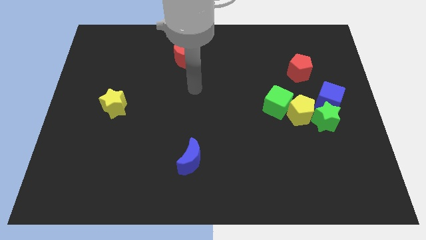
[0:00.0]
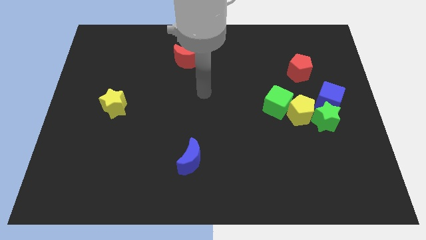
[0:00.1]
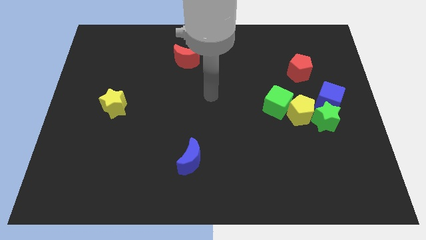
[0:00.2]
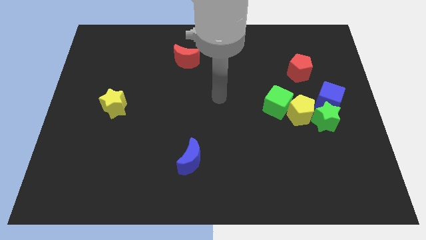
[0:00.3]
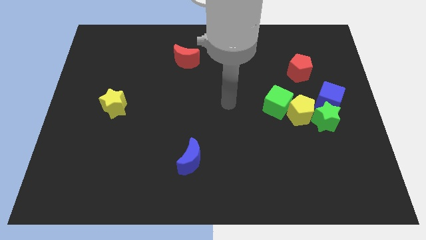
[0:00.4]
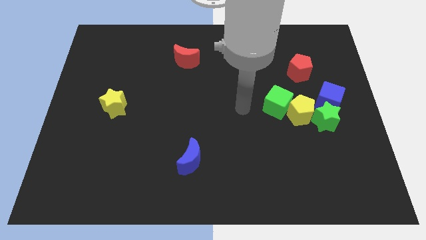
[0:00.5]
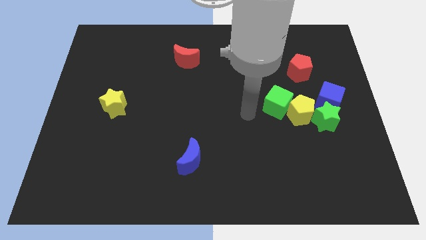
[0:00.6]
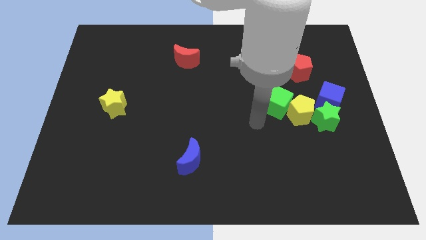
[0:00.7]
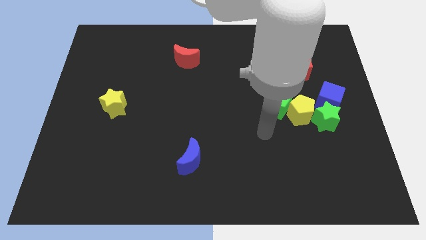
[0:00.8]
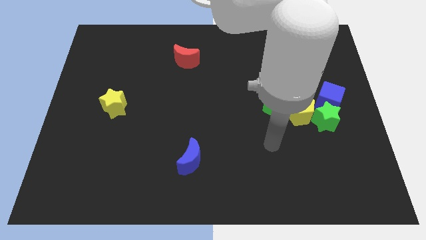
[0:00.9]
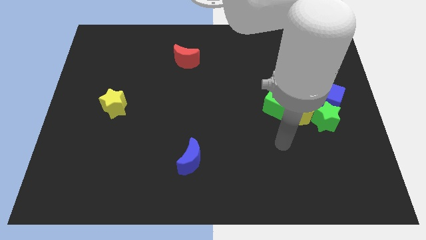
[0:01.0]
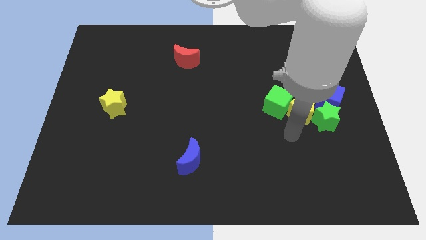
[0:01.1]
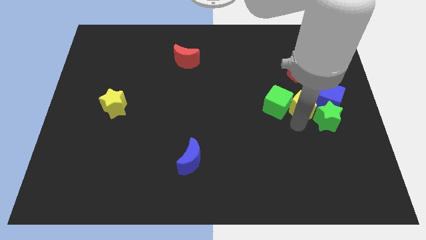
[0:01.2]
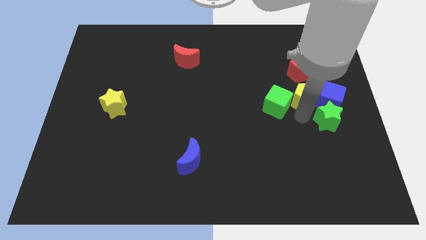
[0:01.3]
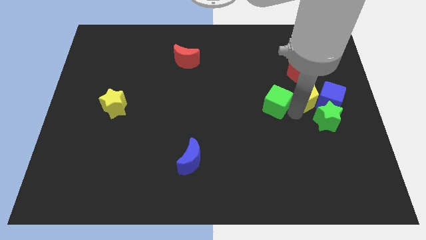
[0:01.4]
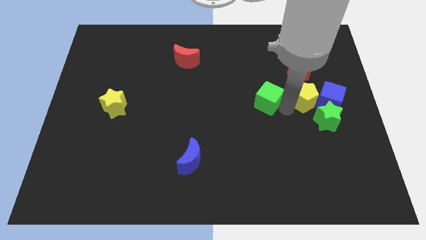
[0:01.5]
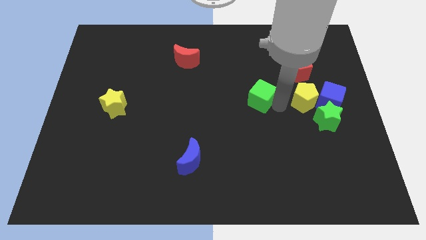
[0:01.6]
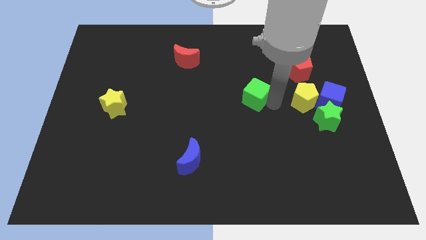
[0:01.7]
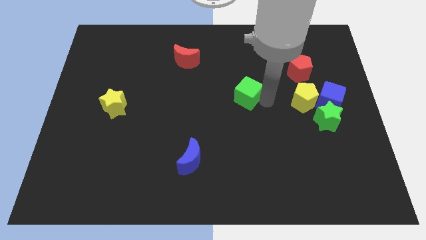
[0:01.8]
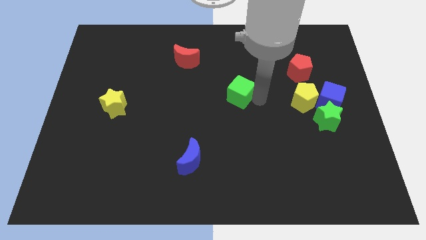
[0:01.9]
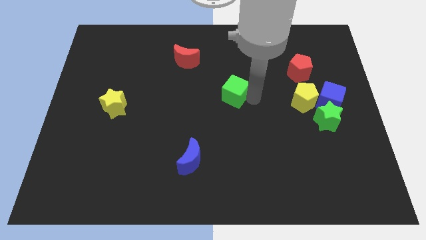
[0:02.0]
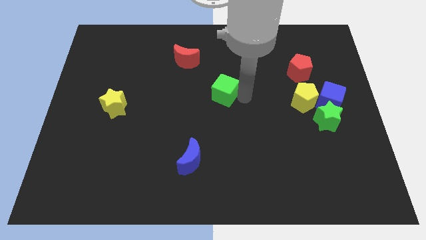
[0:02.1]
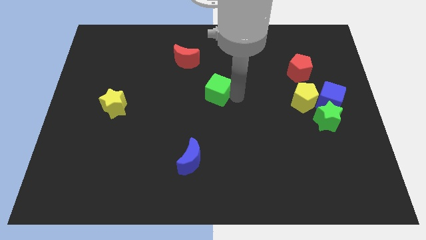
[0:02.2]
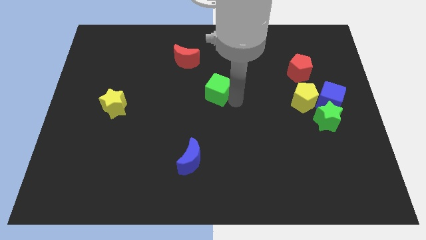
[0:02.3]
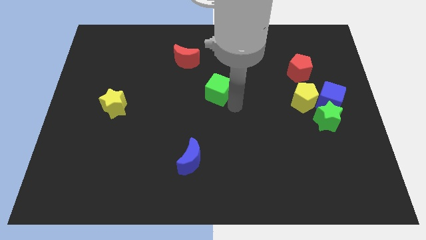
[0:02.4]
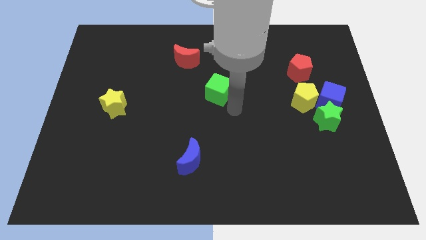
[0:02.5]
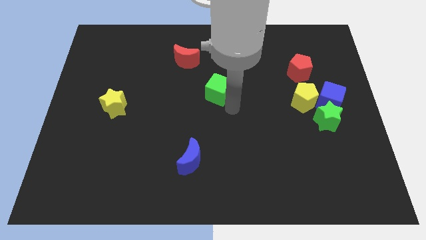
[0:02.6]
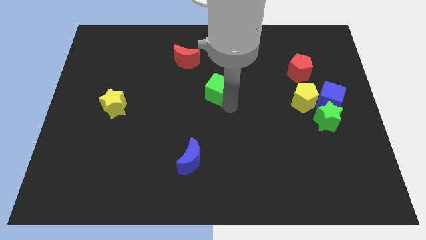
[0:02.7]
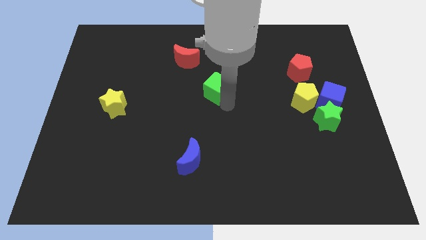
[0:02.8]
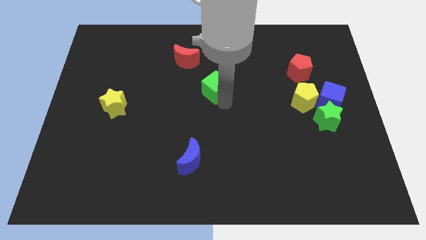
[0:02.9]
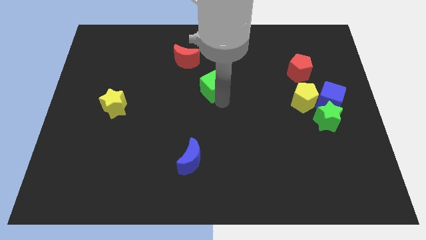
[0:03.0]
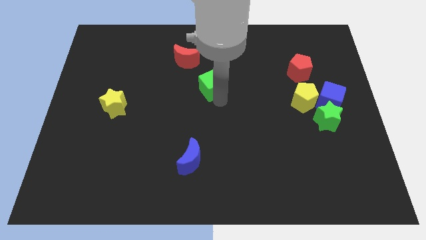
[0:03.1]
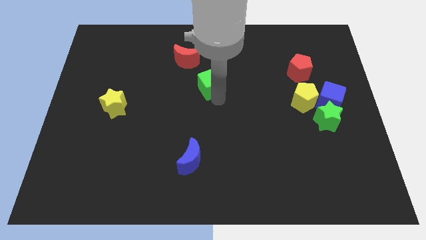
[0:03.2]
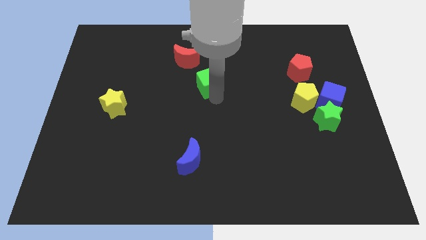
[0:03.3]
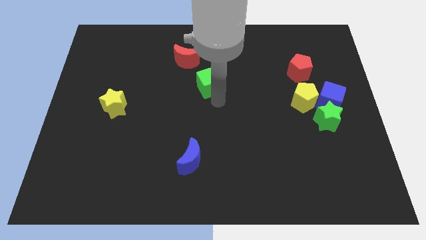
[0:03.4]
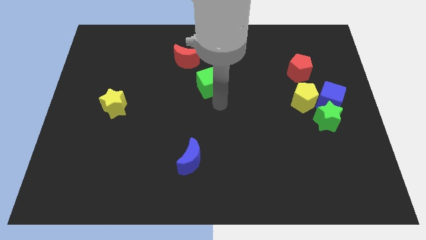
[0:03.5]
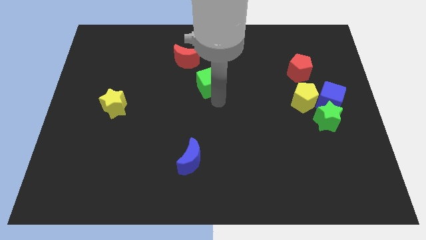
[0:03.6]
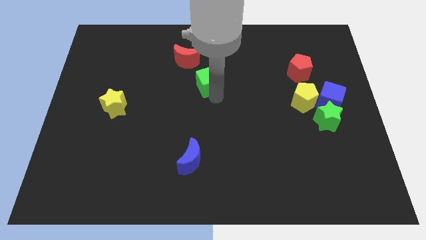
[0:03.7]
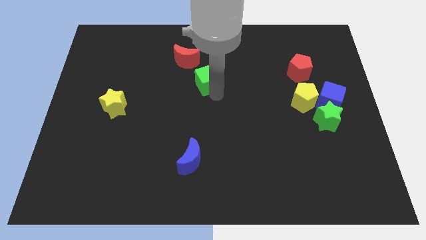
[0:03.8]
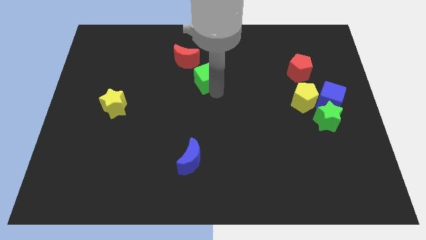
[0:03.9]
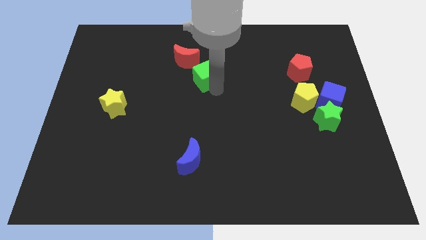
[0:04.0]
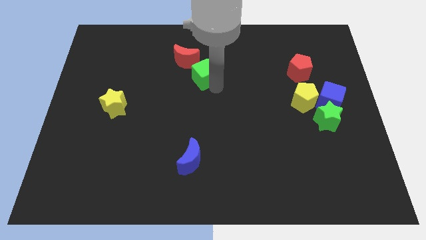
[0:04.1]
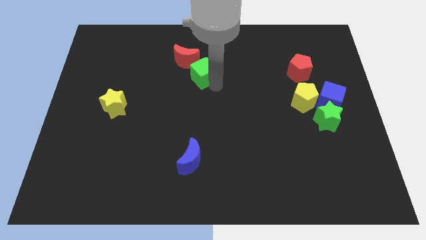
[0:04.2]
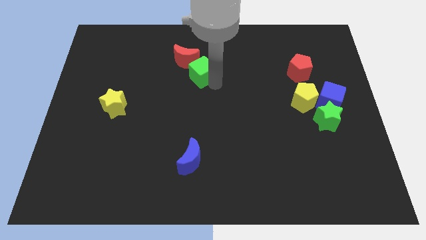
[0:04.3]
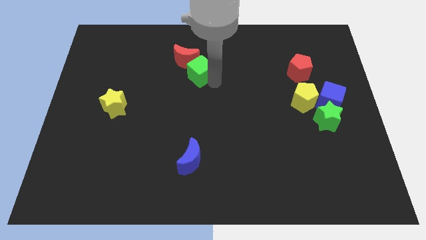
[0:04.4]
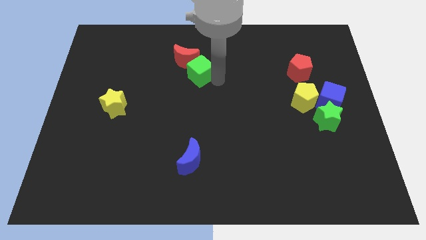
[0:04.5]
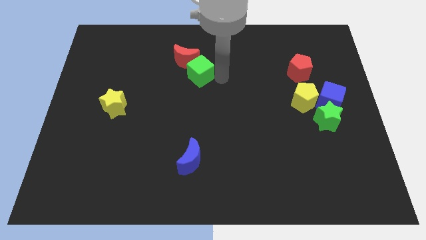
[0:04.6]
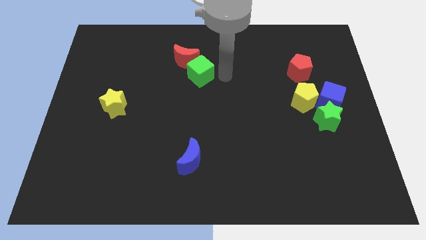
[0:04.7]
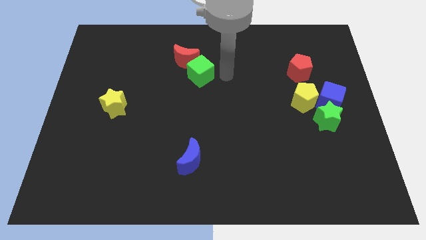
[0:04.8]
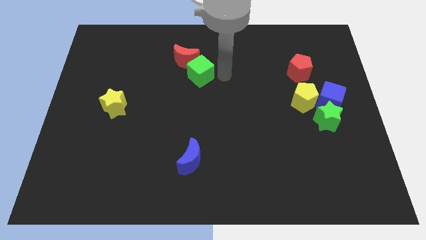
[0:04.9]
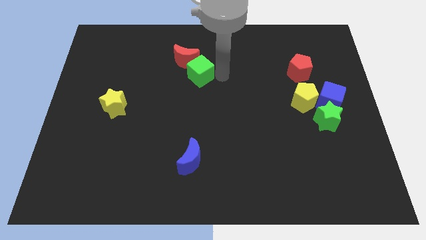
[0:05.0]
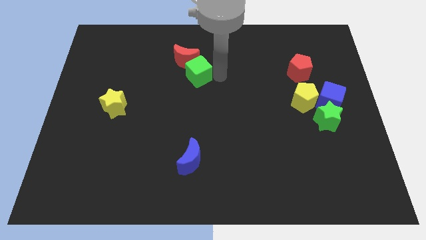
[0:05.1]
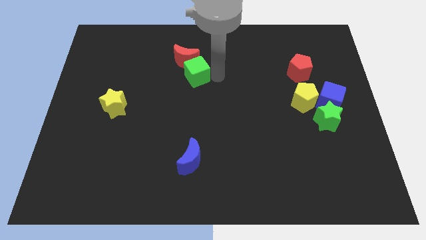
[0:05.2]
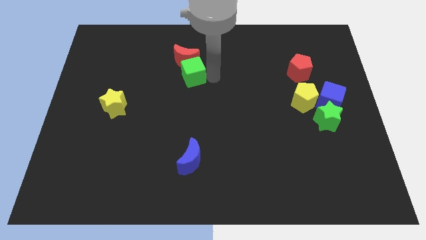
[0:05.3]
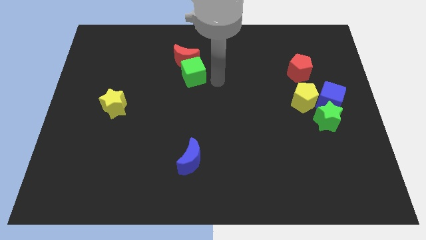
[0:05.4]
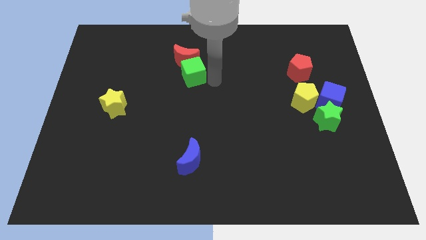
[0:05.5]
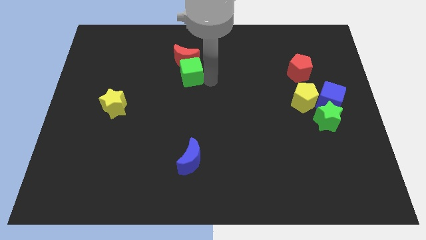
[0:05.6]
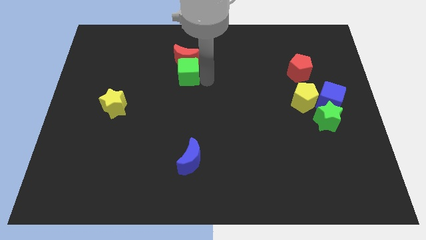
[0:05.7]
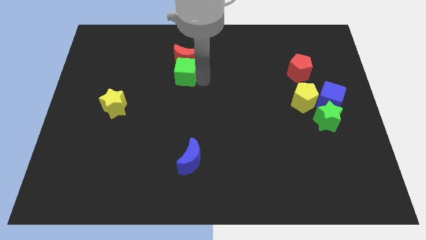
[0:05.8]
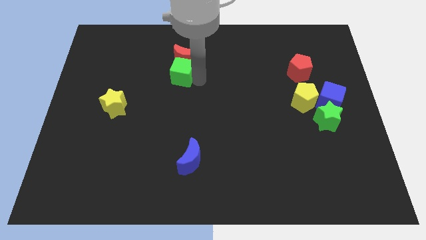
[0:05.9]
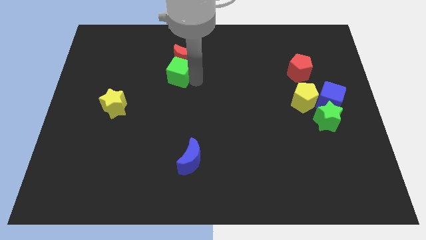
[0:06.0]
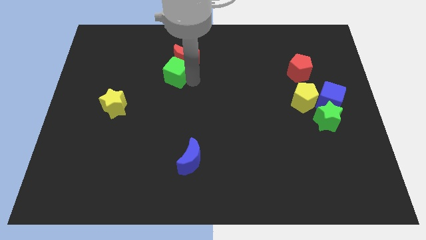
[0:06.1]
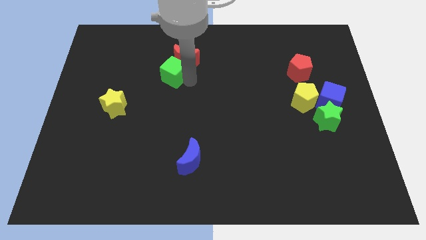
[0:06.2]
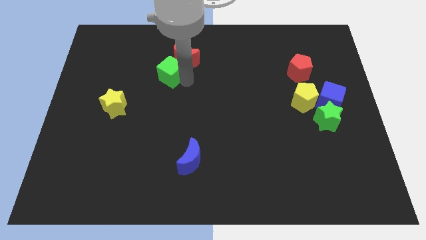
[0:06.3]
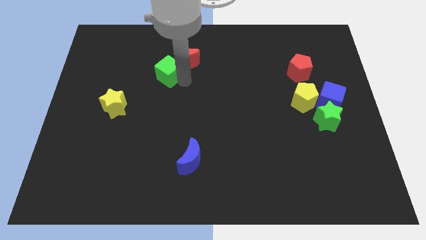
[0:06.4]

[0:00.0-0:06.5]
push the green cube to the left of the red moon
